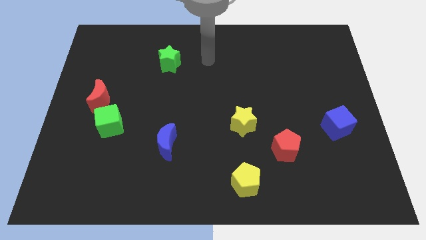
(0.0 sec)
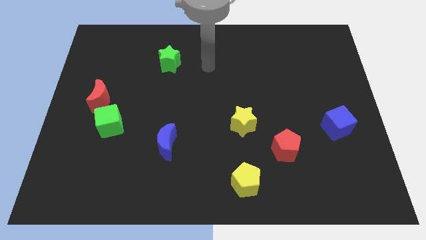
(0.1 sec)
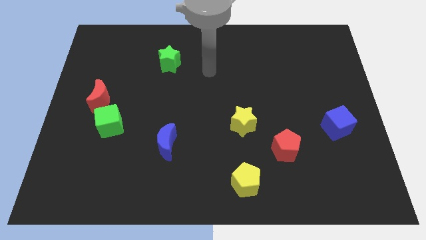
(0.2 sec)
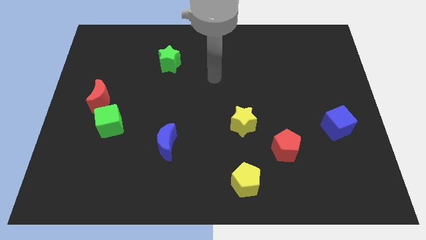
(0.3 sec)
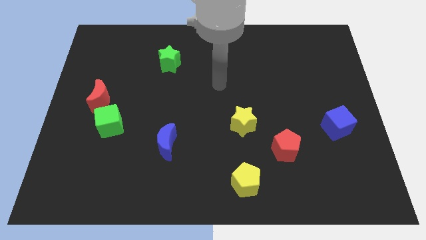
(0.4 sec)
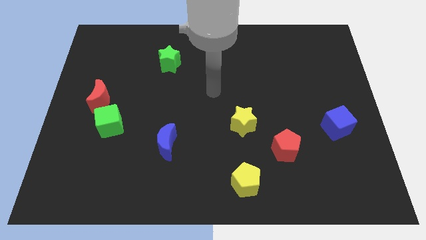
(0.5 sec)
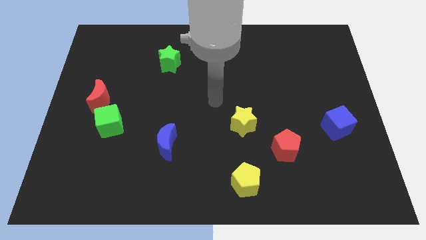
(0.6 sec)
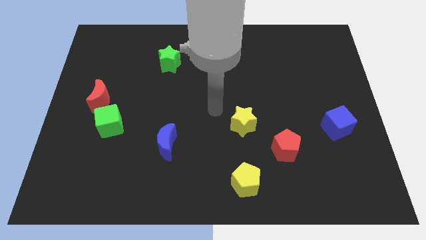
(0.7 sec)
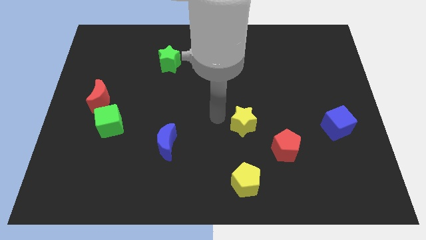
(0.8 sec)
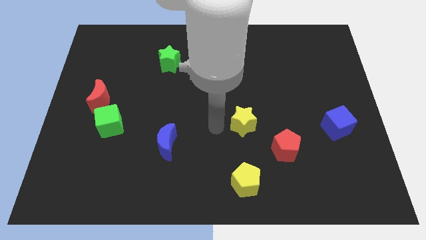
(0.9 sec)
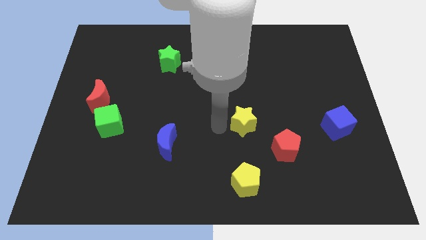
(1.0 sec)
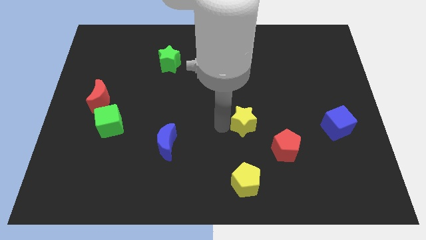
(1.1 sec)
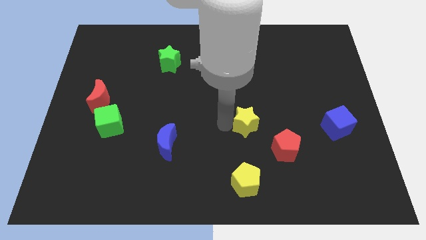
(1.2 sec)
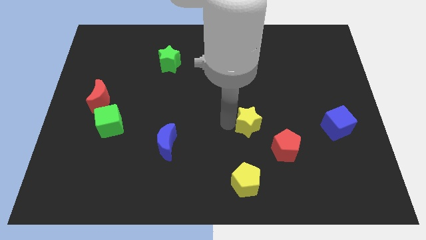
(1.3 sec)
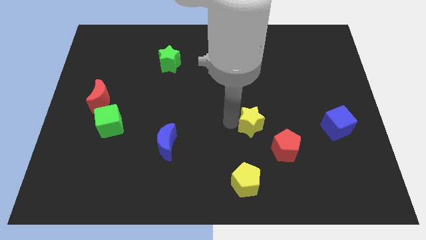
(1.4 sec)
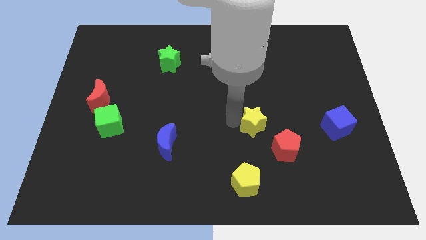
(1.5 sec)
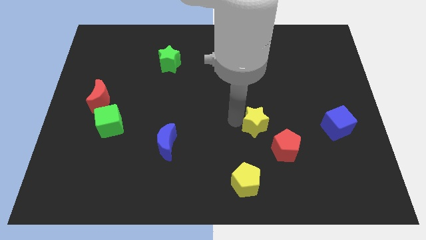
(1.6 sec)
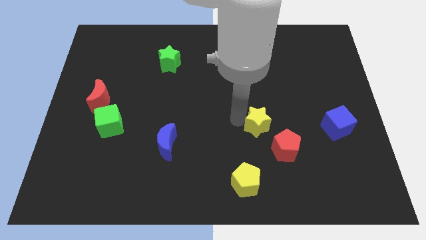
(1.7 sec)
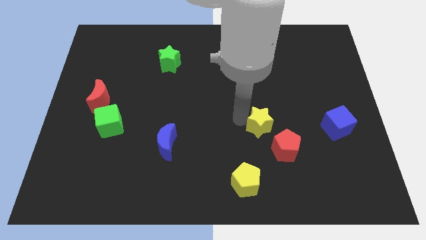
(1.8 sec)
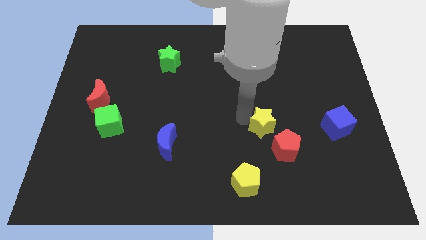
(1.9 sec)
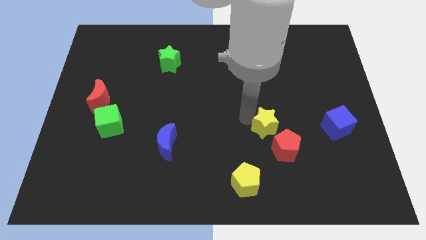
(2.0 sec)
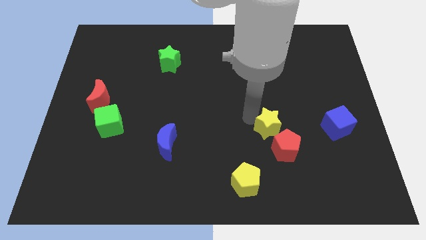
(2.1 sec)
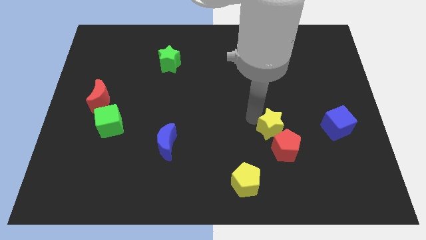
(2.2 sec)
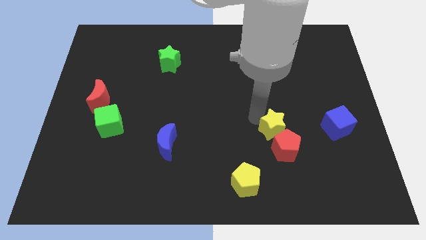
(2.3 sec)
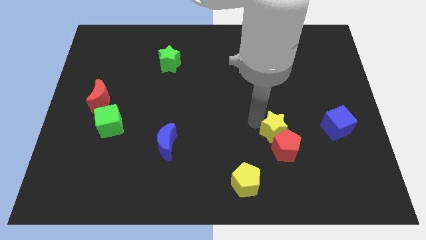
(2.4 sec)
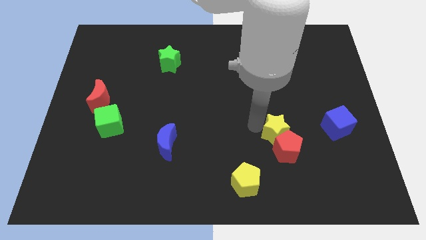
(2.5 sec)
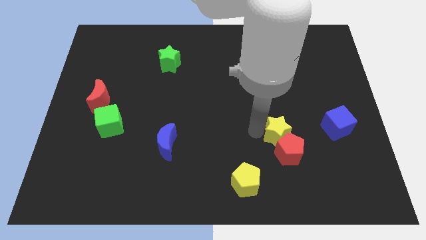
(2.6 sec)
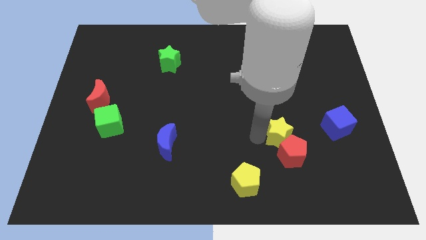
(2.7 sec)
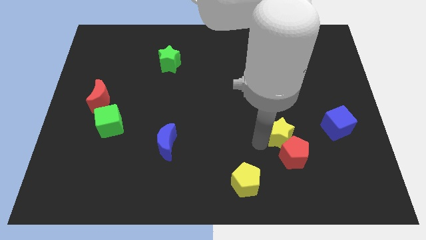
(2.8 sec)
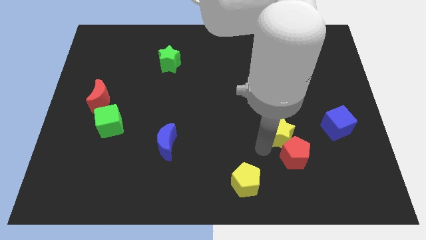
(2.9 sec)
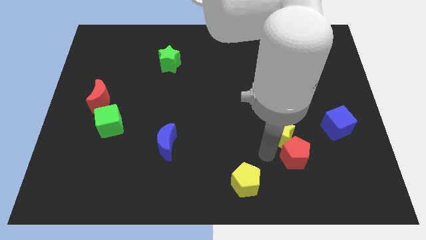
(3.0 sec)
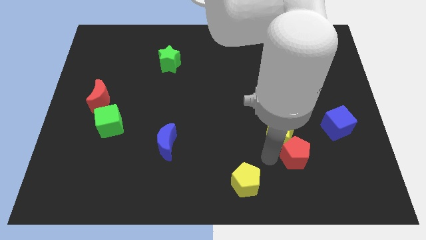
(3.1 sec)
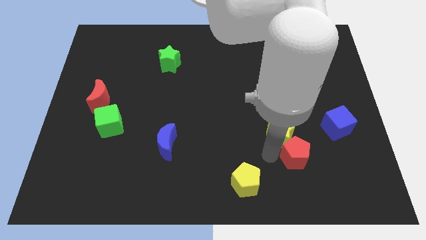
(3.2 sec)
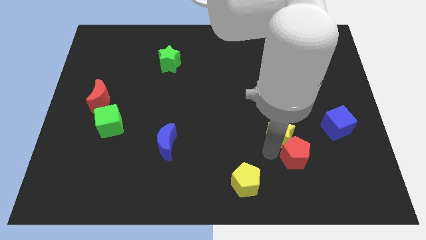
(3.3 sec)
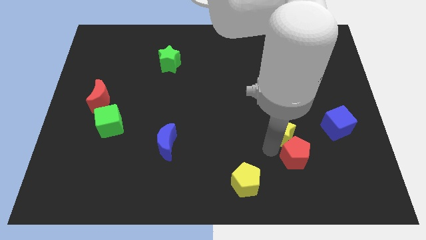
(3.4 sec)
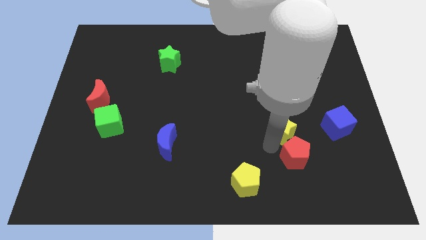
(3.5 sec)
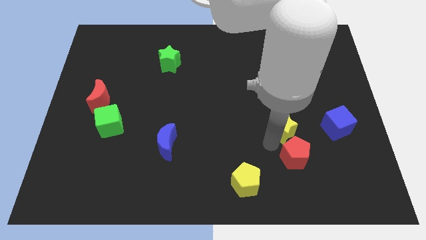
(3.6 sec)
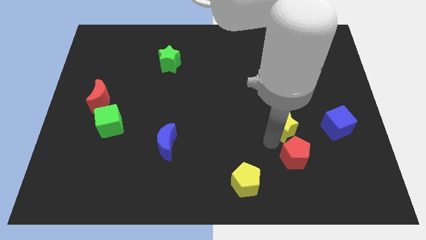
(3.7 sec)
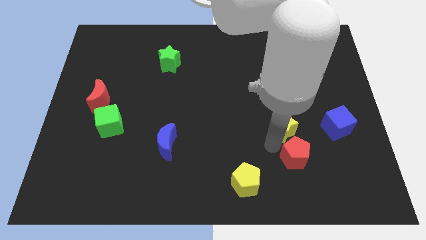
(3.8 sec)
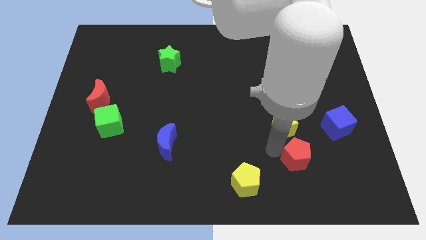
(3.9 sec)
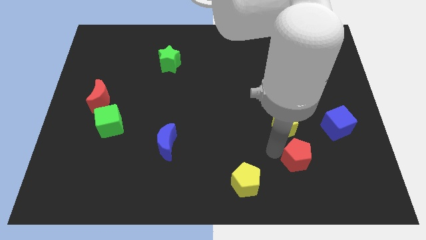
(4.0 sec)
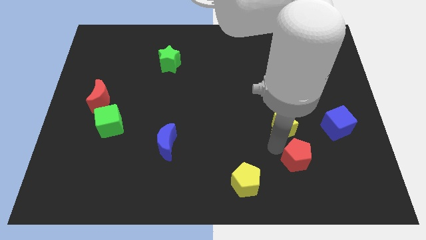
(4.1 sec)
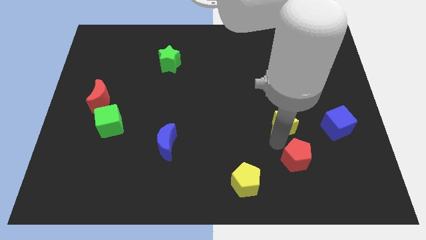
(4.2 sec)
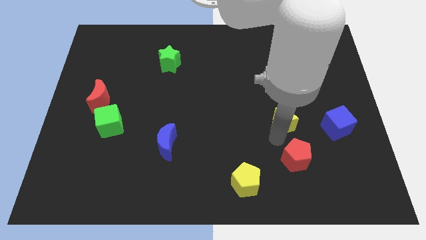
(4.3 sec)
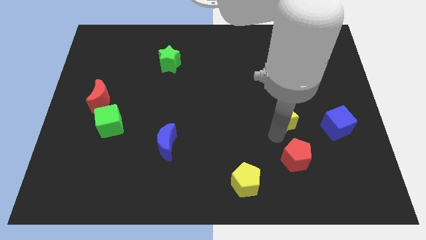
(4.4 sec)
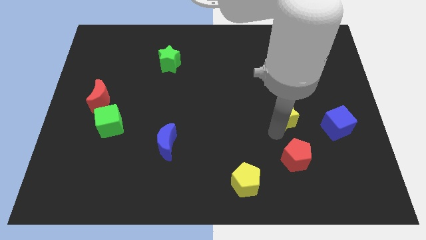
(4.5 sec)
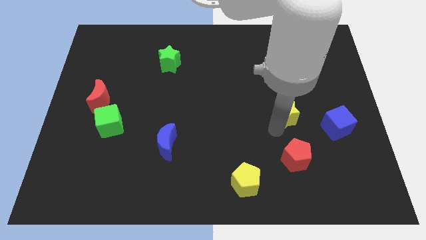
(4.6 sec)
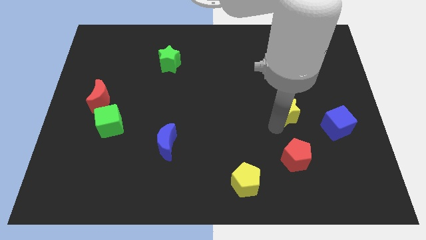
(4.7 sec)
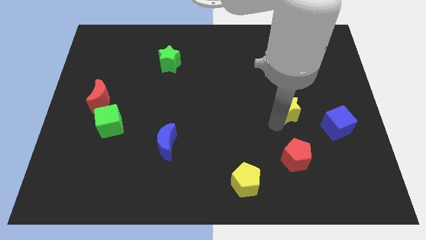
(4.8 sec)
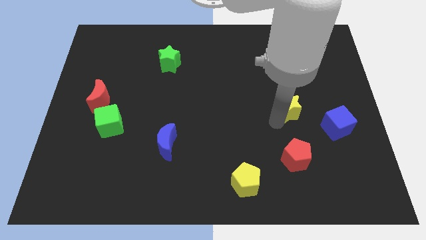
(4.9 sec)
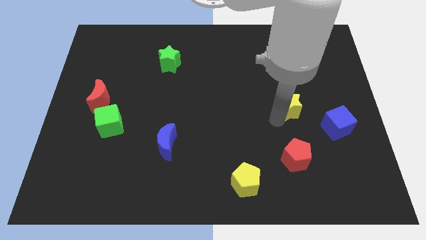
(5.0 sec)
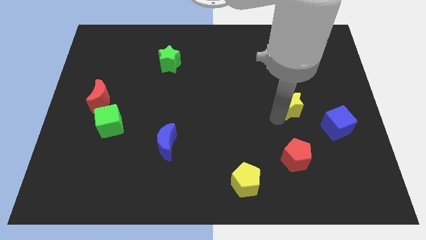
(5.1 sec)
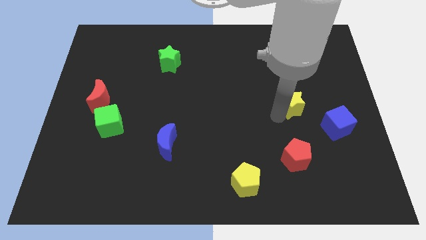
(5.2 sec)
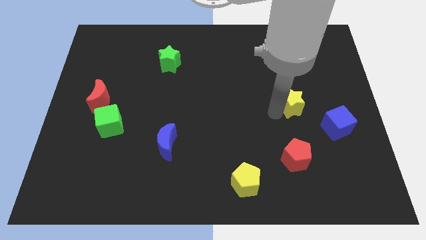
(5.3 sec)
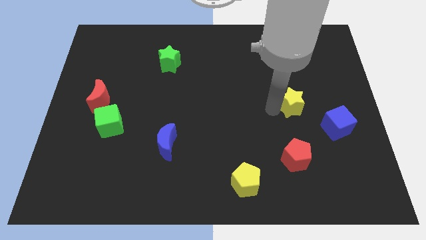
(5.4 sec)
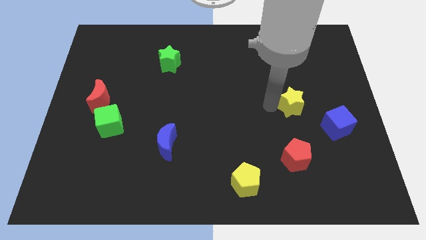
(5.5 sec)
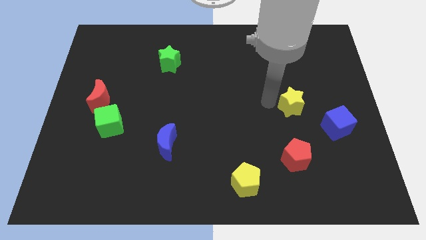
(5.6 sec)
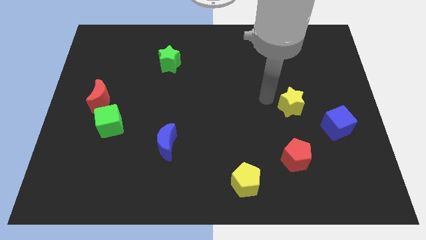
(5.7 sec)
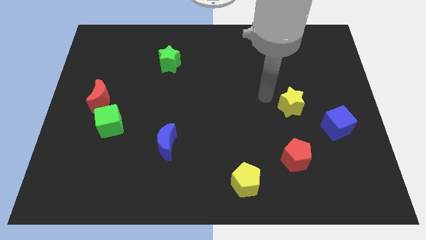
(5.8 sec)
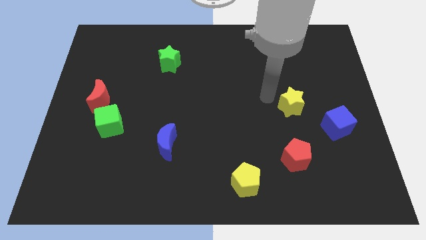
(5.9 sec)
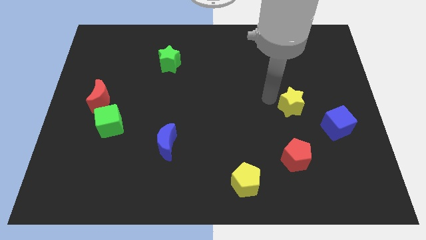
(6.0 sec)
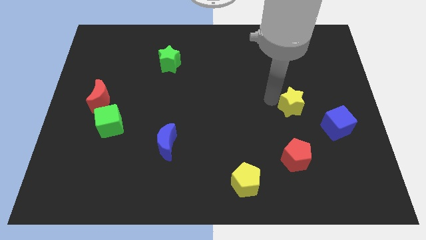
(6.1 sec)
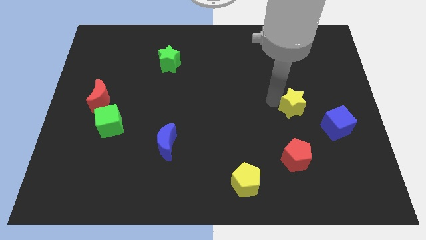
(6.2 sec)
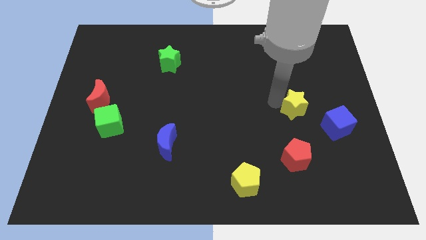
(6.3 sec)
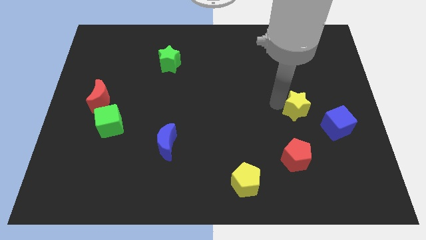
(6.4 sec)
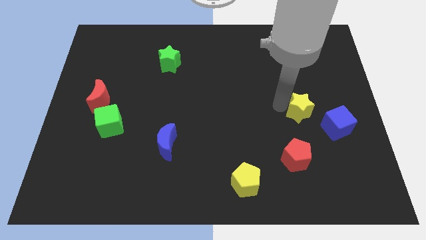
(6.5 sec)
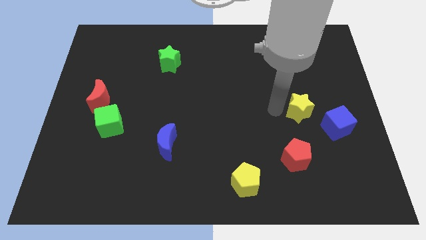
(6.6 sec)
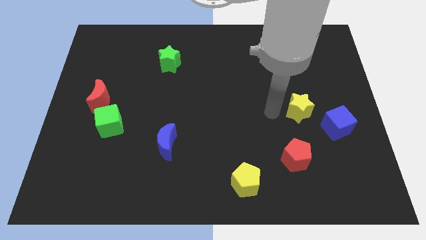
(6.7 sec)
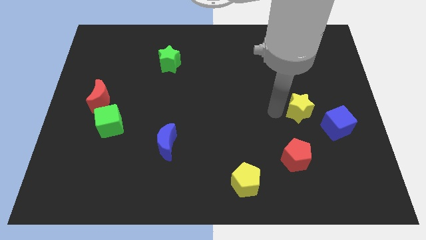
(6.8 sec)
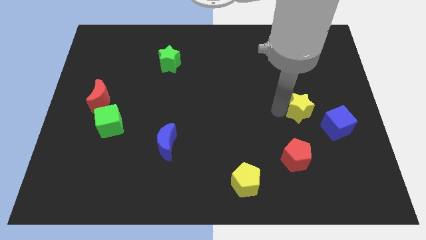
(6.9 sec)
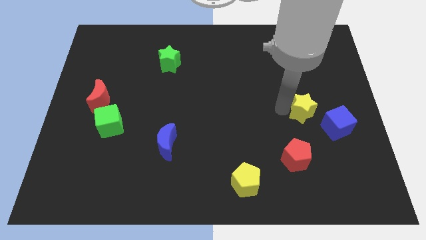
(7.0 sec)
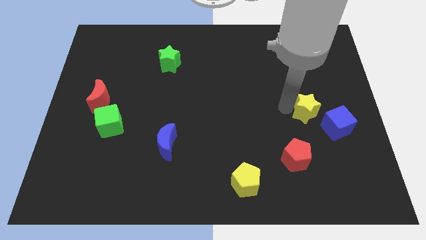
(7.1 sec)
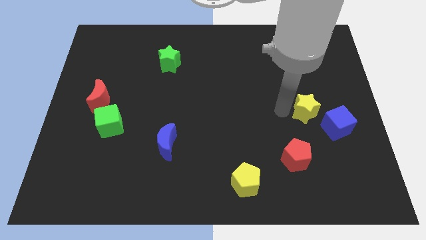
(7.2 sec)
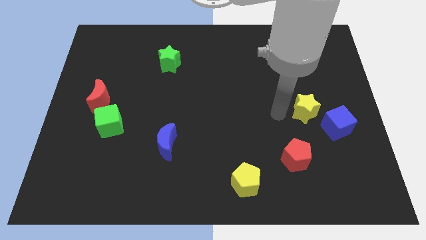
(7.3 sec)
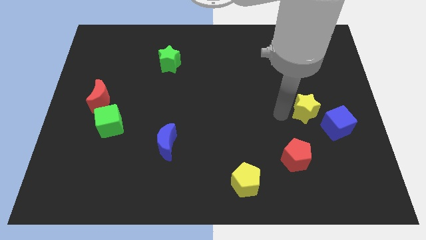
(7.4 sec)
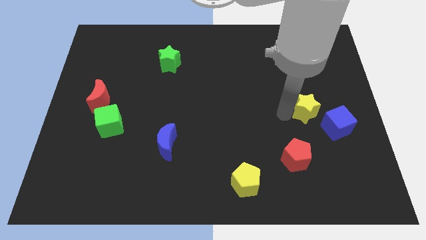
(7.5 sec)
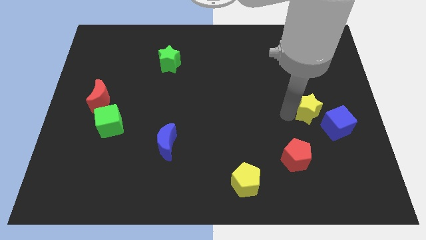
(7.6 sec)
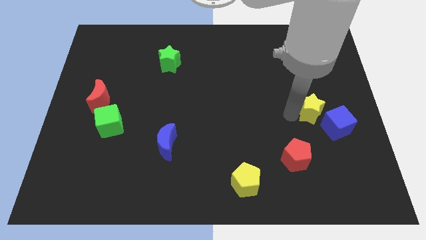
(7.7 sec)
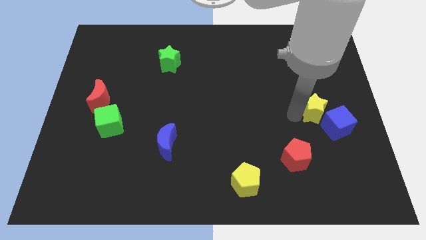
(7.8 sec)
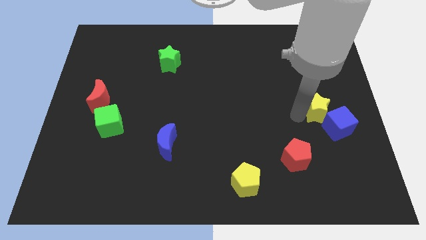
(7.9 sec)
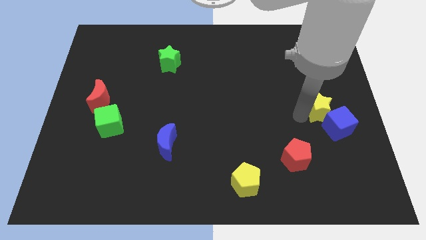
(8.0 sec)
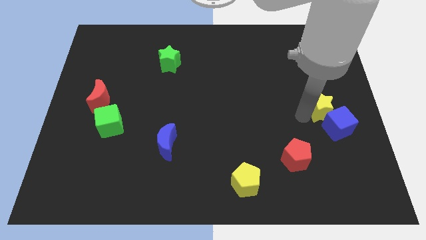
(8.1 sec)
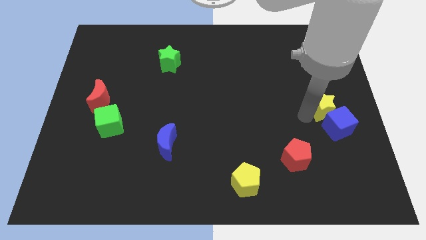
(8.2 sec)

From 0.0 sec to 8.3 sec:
push the yellow star to the right side
